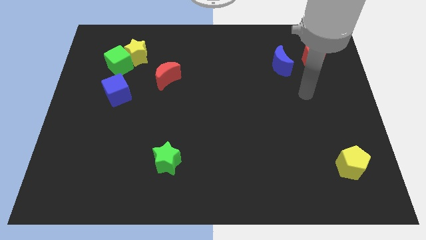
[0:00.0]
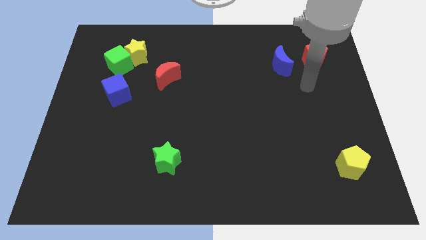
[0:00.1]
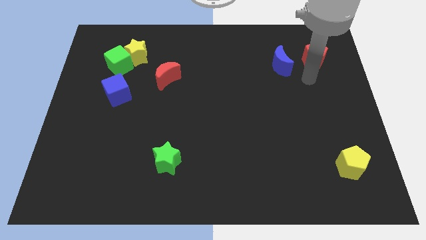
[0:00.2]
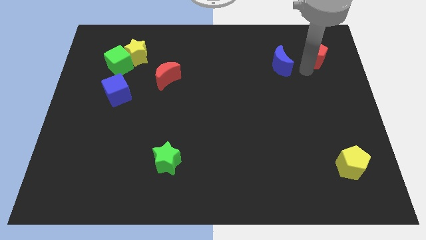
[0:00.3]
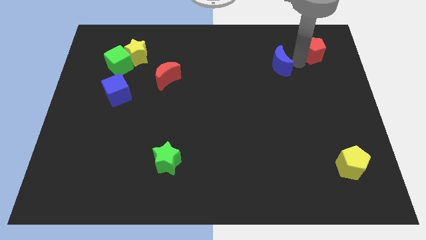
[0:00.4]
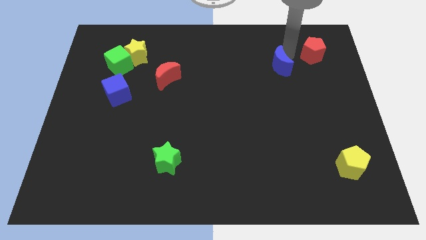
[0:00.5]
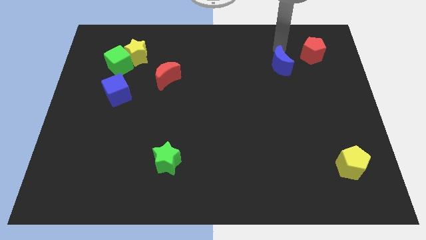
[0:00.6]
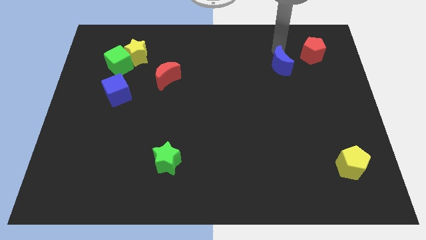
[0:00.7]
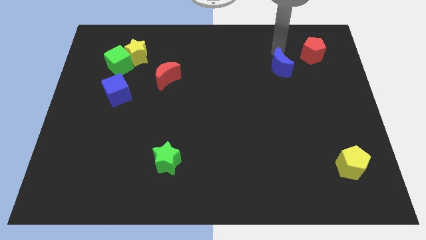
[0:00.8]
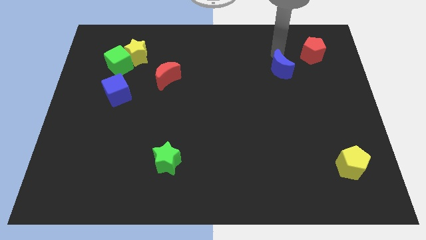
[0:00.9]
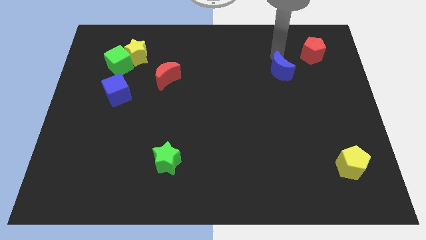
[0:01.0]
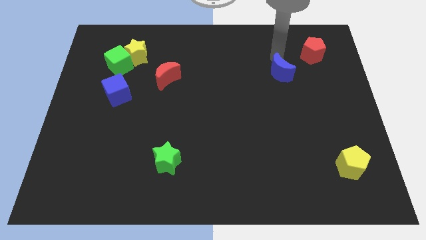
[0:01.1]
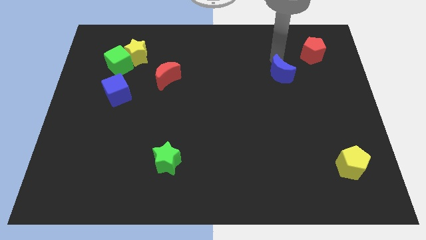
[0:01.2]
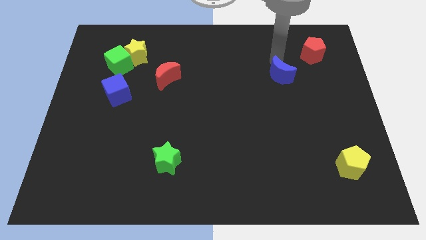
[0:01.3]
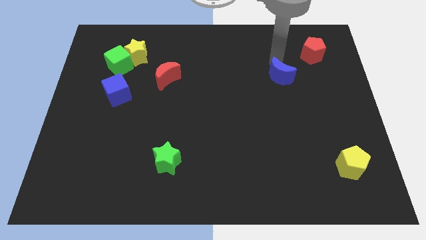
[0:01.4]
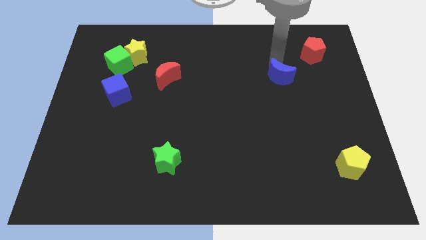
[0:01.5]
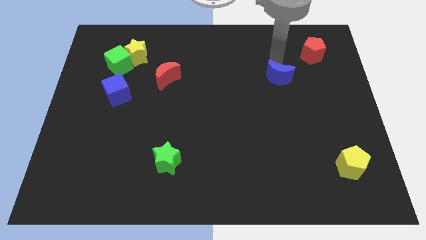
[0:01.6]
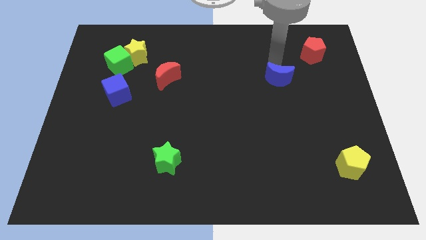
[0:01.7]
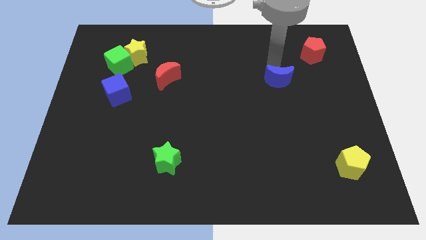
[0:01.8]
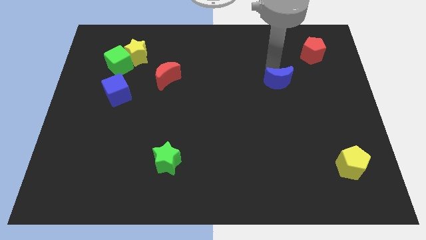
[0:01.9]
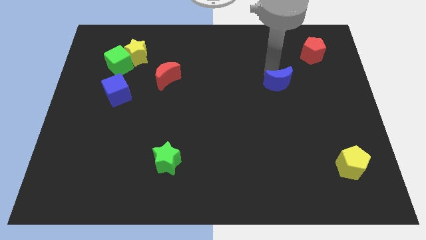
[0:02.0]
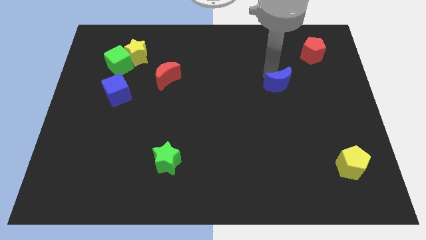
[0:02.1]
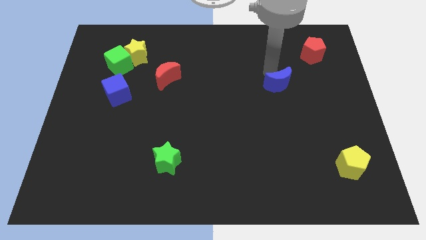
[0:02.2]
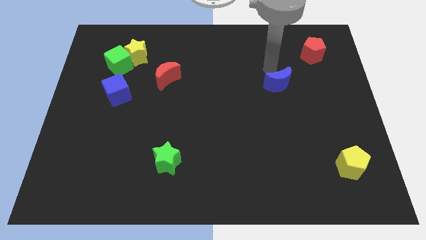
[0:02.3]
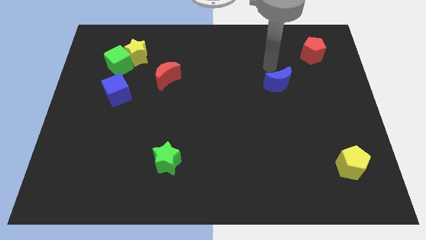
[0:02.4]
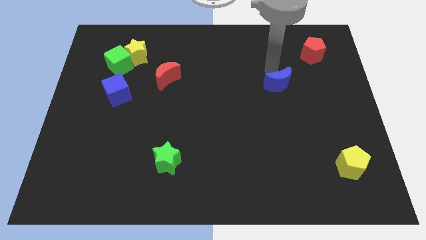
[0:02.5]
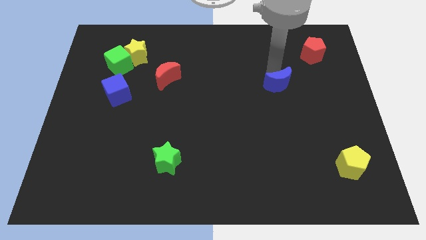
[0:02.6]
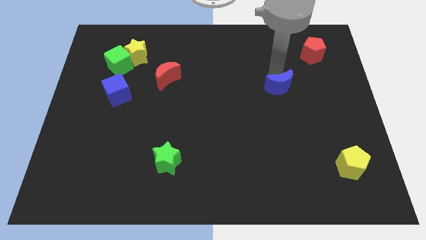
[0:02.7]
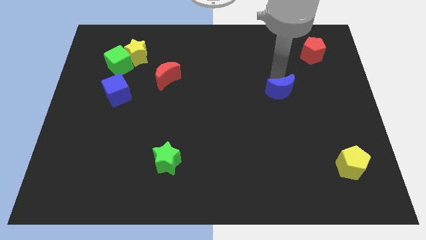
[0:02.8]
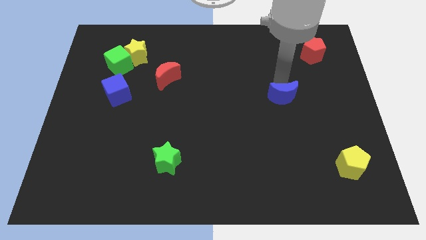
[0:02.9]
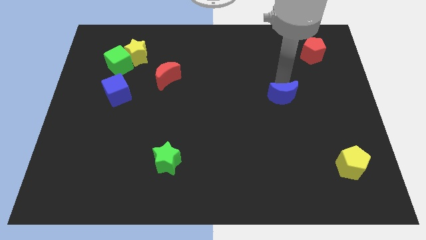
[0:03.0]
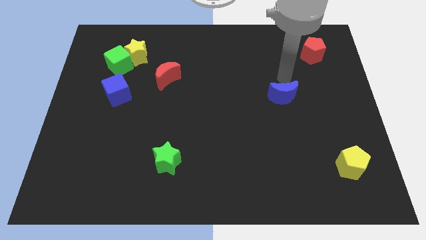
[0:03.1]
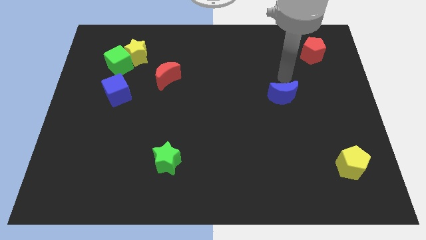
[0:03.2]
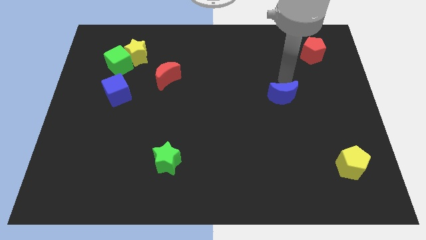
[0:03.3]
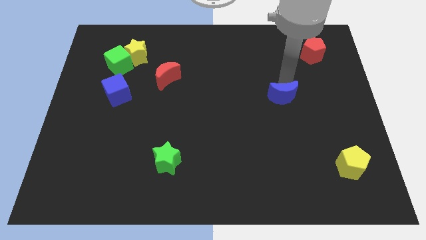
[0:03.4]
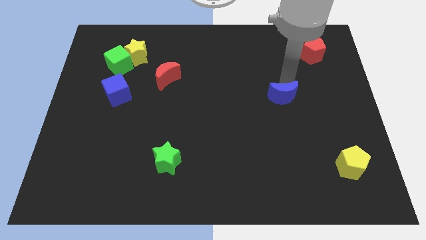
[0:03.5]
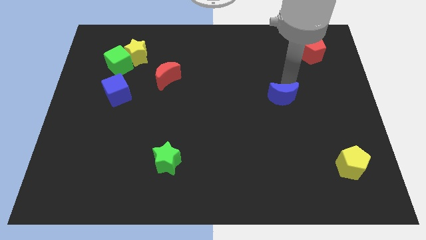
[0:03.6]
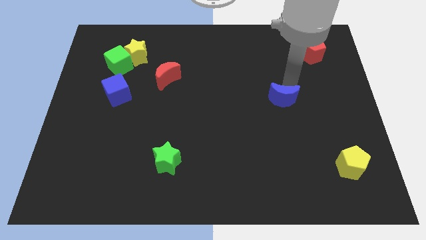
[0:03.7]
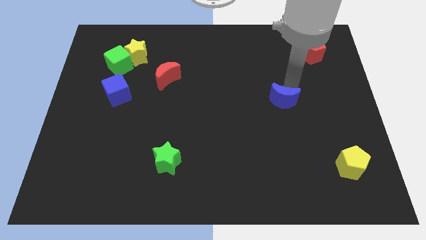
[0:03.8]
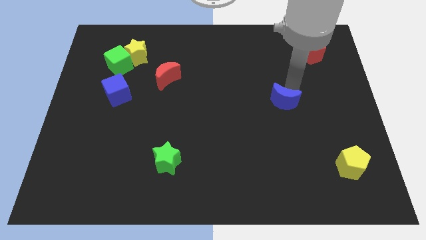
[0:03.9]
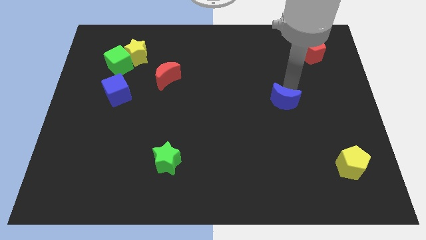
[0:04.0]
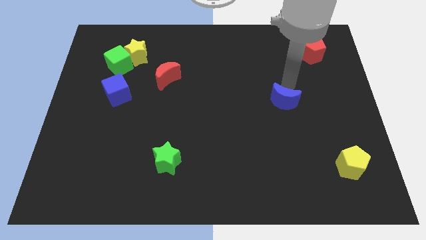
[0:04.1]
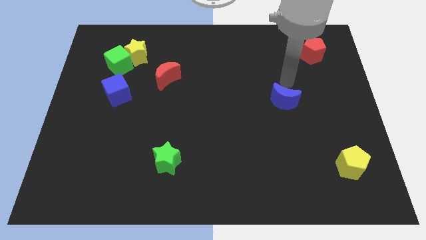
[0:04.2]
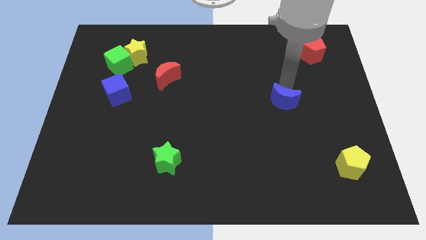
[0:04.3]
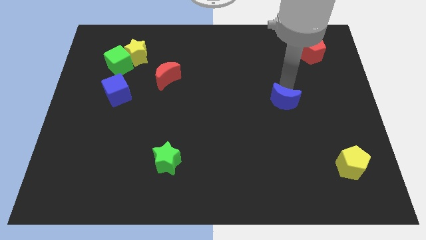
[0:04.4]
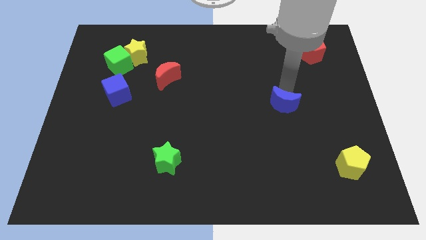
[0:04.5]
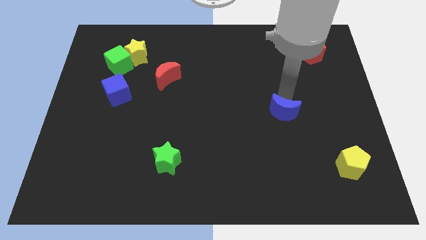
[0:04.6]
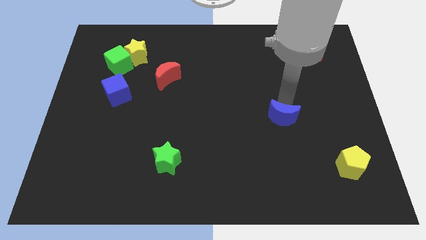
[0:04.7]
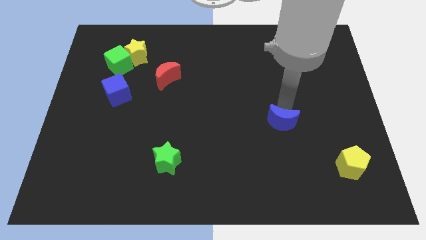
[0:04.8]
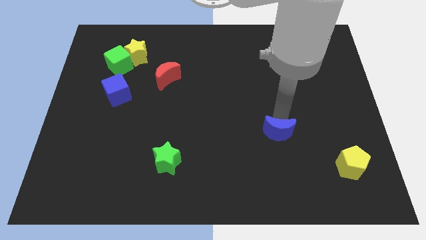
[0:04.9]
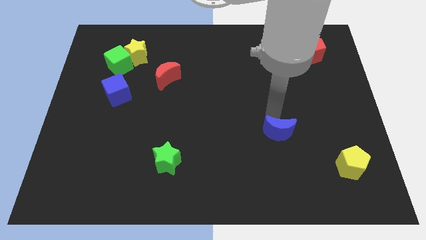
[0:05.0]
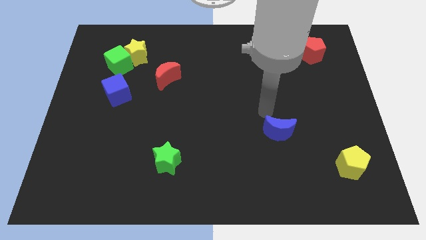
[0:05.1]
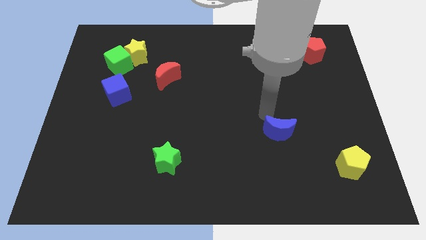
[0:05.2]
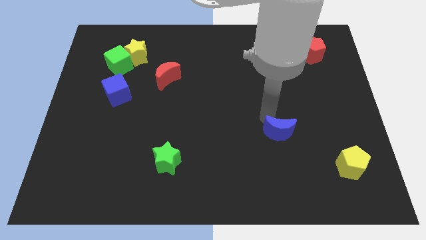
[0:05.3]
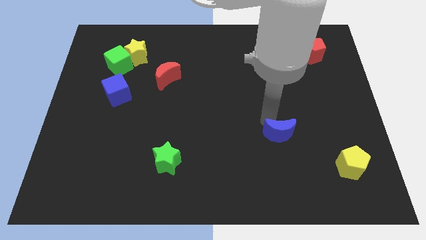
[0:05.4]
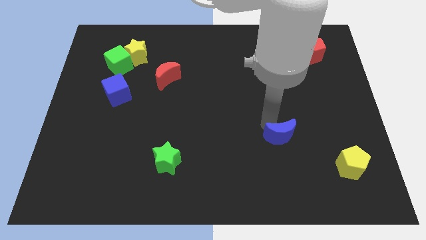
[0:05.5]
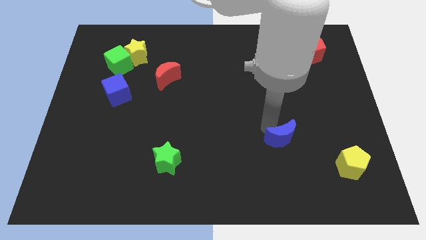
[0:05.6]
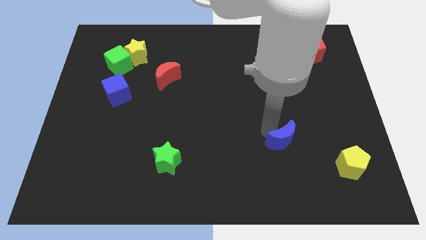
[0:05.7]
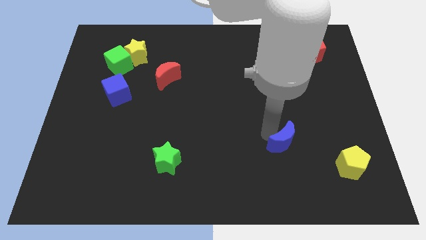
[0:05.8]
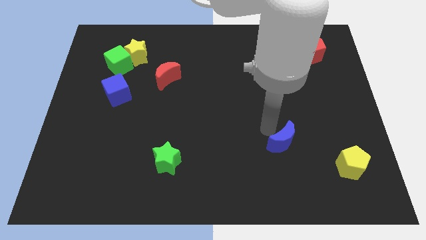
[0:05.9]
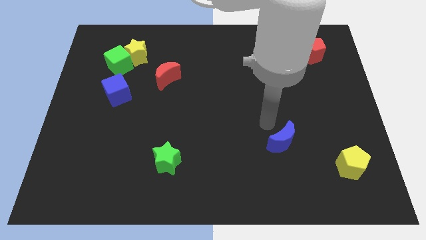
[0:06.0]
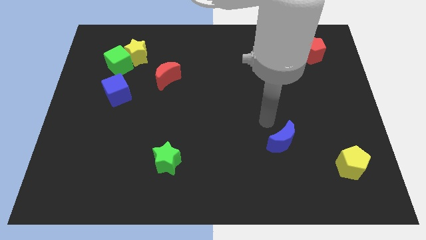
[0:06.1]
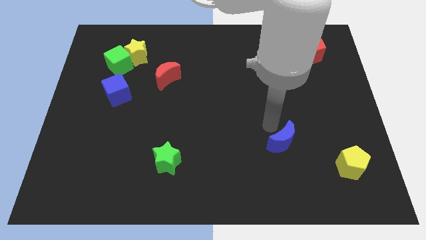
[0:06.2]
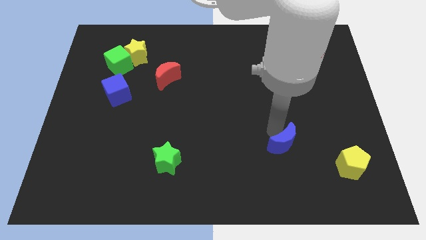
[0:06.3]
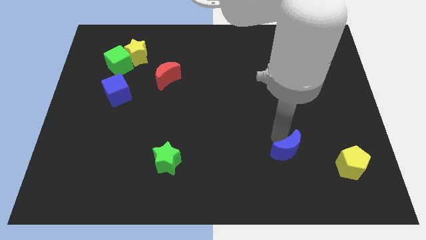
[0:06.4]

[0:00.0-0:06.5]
put the blue moon just left of the yellow pentagon

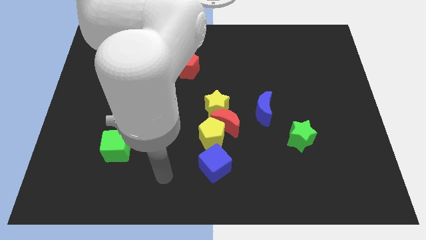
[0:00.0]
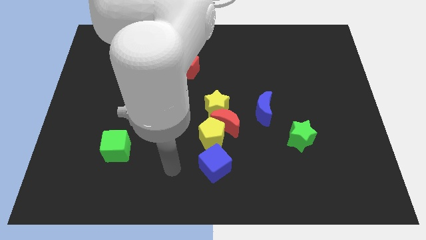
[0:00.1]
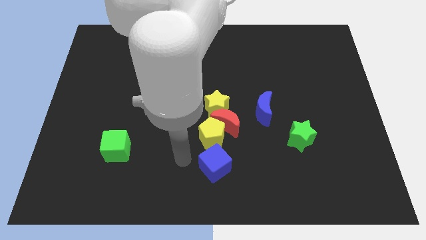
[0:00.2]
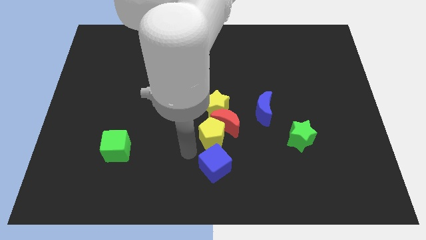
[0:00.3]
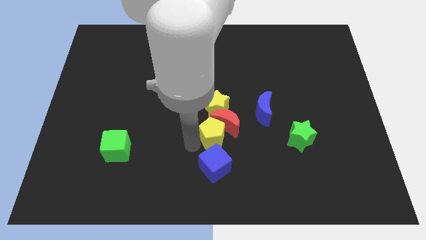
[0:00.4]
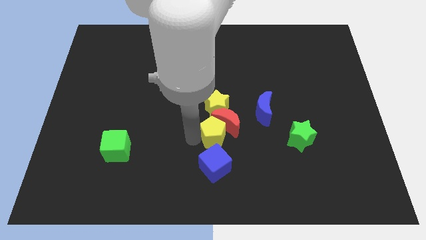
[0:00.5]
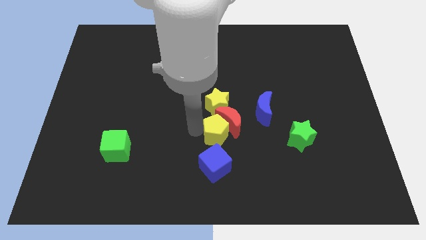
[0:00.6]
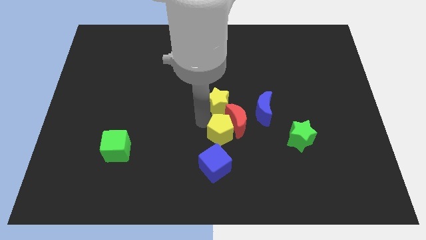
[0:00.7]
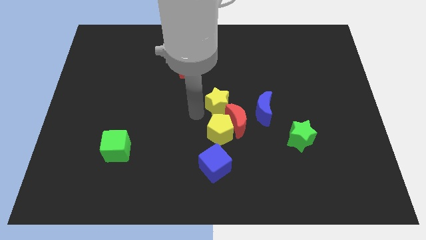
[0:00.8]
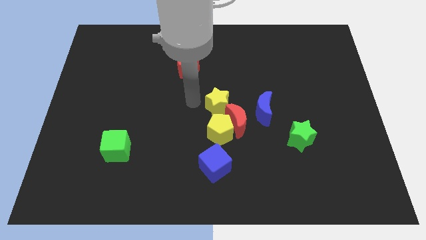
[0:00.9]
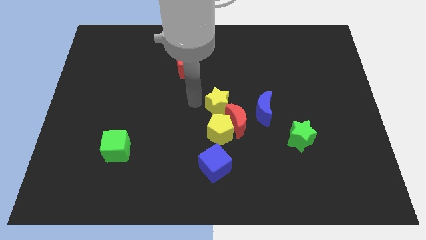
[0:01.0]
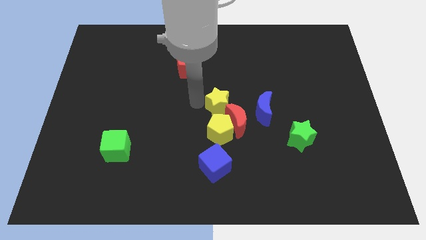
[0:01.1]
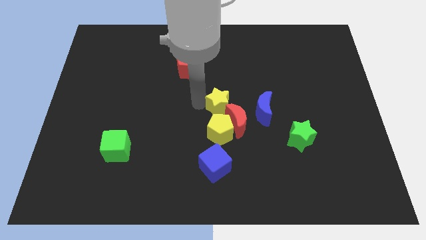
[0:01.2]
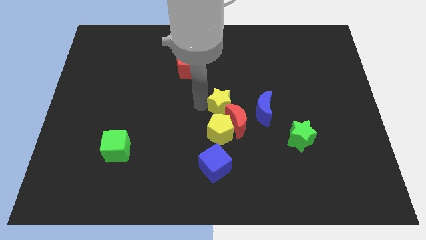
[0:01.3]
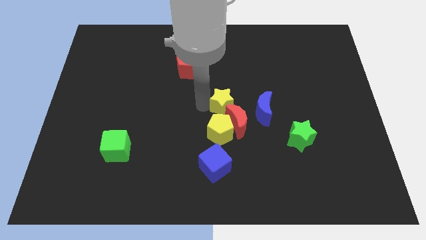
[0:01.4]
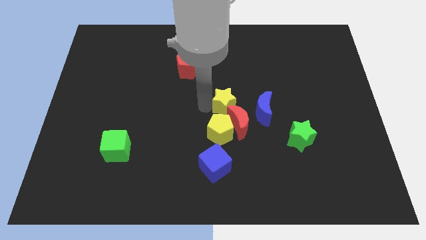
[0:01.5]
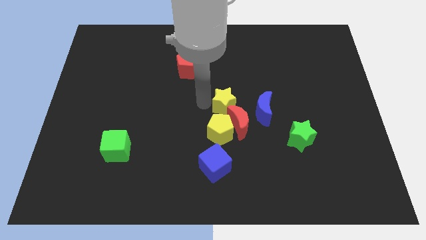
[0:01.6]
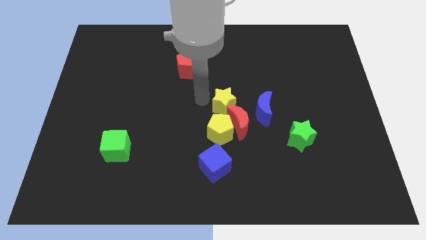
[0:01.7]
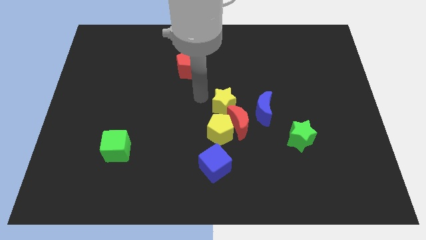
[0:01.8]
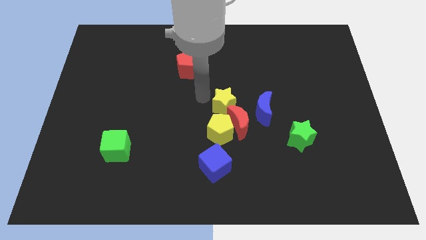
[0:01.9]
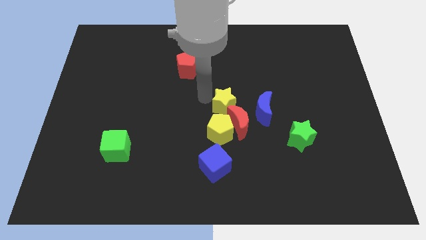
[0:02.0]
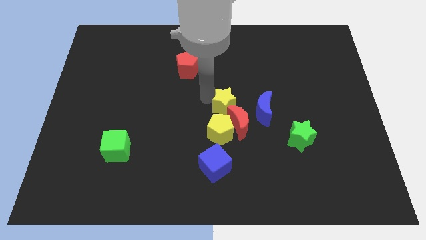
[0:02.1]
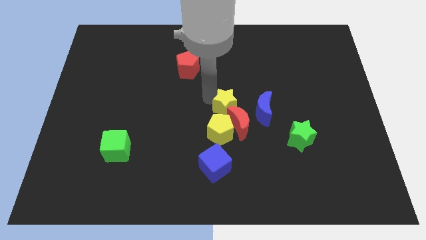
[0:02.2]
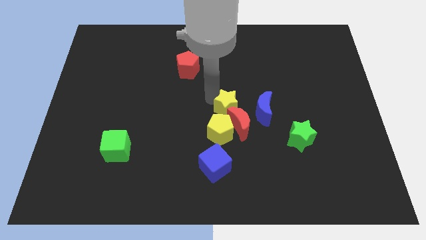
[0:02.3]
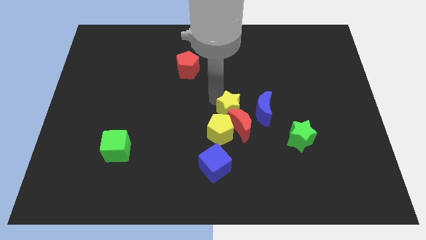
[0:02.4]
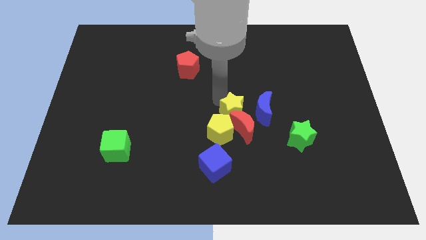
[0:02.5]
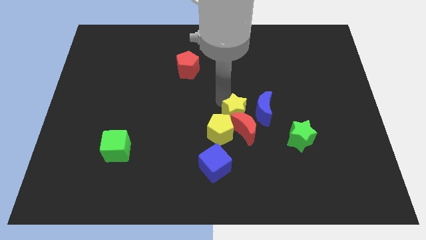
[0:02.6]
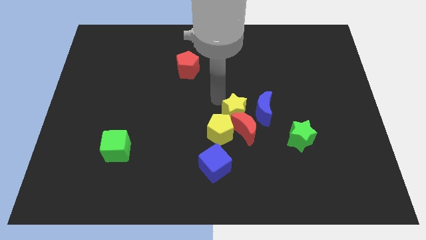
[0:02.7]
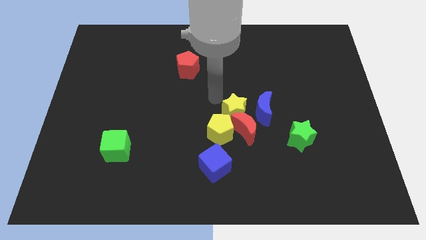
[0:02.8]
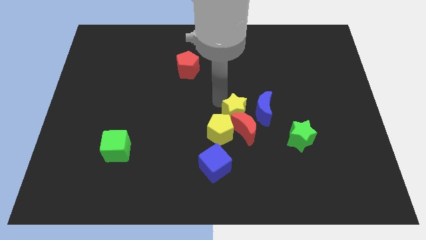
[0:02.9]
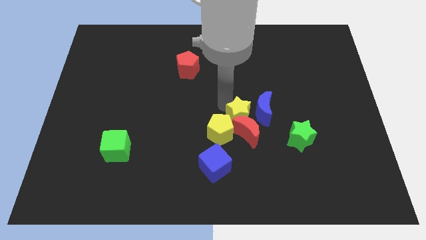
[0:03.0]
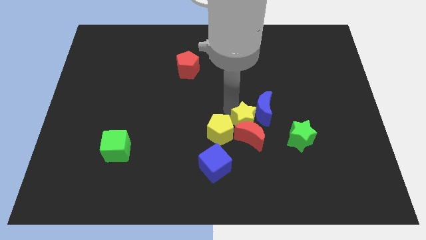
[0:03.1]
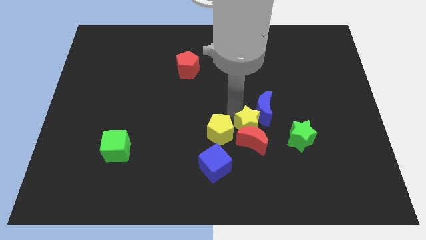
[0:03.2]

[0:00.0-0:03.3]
move the yellow star diagonally up and to the right of the blue cube
